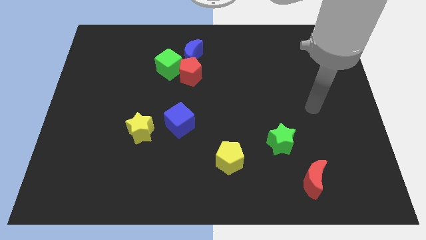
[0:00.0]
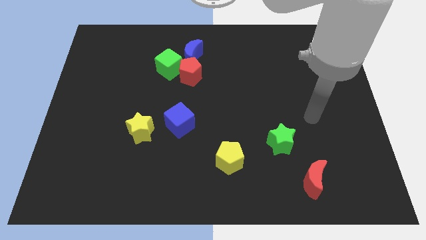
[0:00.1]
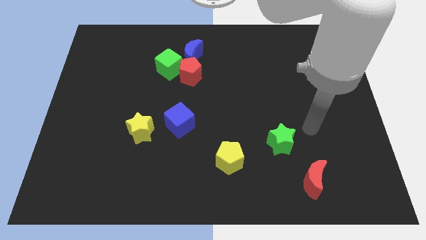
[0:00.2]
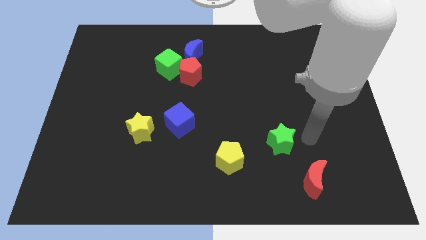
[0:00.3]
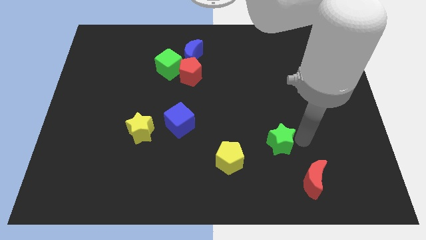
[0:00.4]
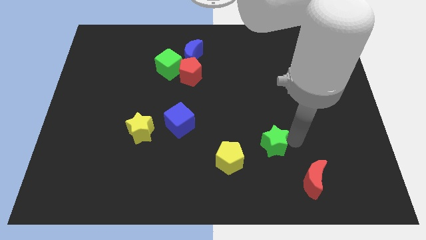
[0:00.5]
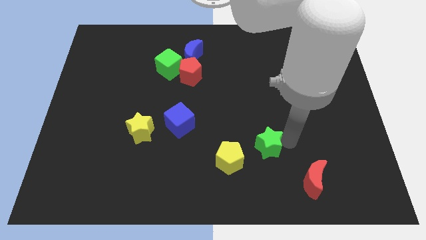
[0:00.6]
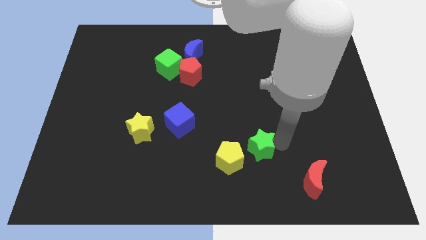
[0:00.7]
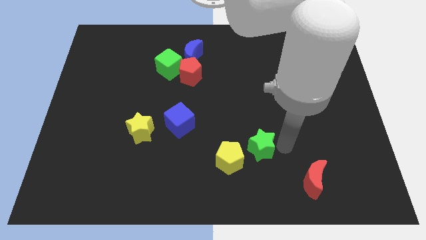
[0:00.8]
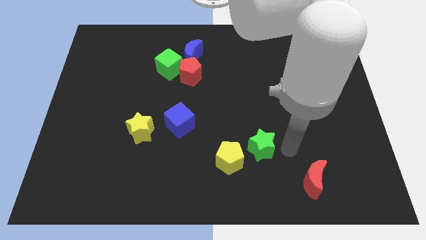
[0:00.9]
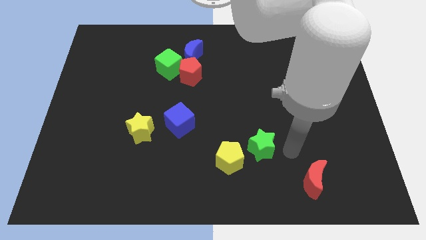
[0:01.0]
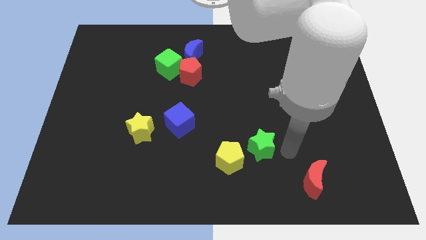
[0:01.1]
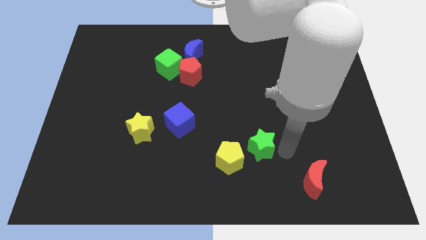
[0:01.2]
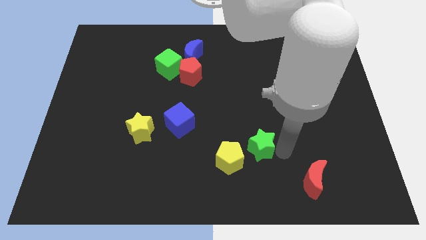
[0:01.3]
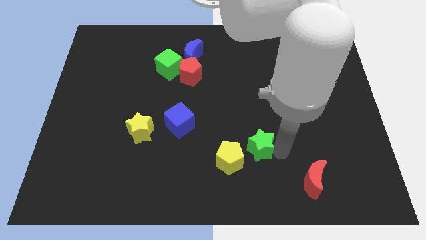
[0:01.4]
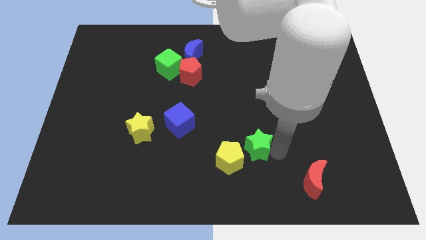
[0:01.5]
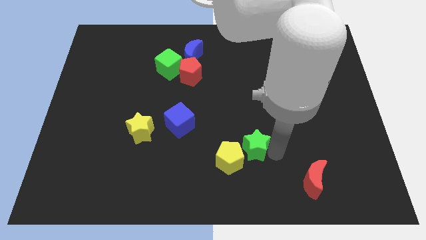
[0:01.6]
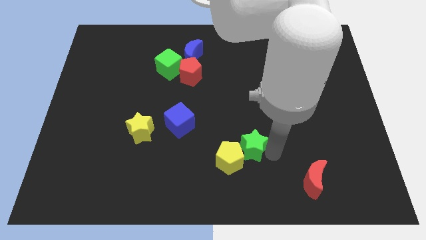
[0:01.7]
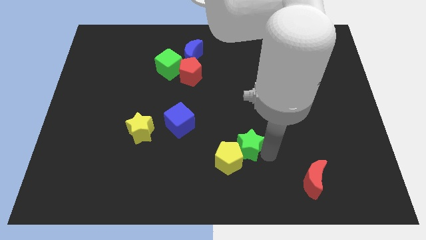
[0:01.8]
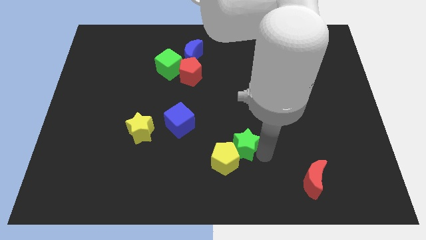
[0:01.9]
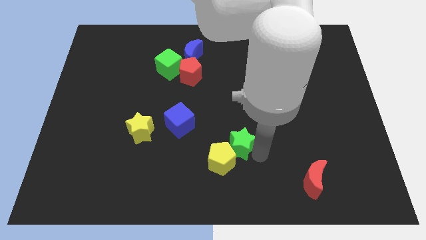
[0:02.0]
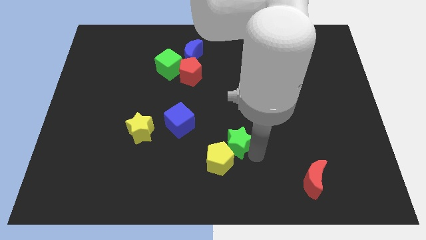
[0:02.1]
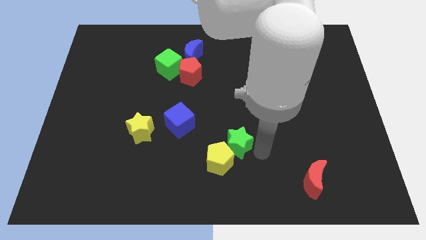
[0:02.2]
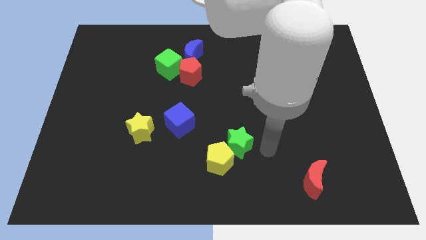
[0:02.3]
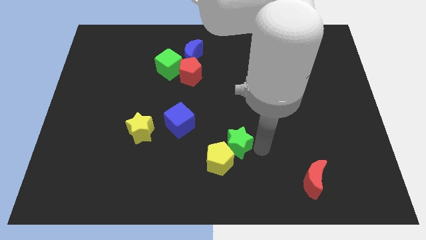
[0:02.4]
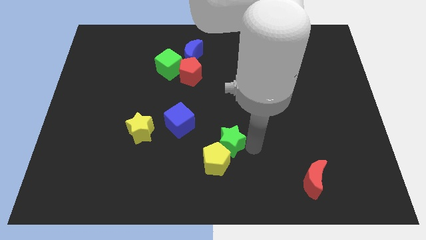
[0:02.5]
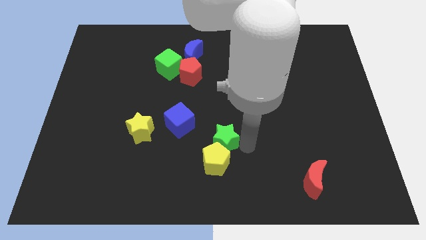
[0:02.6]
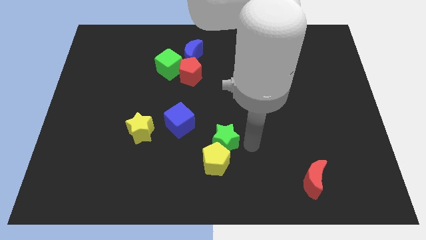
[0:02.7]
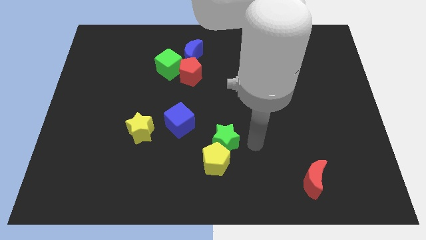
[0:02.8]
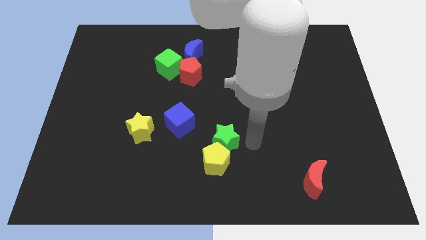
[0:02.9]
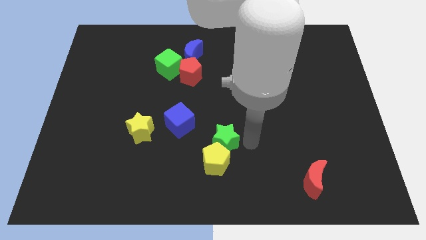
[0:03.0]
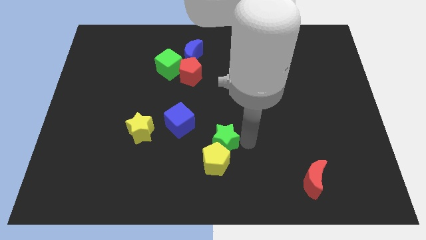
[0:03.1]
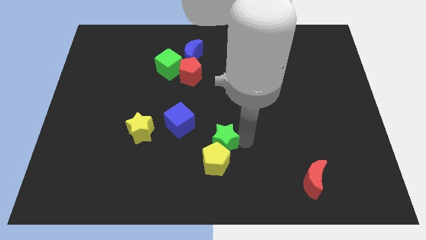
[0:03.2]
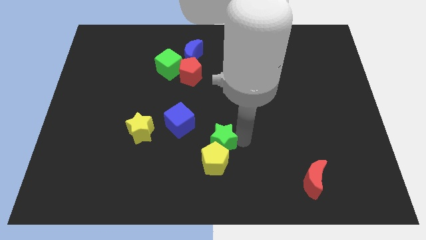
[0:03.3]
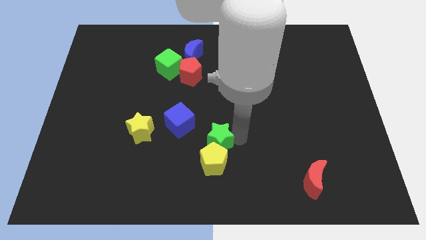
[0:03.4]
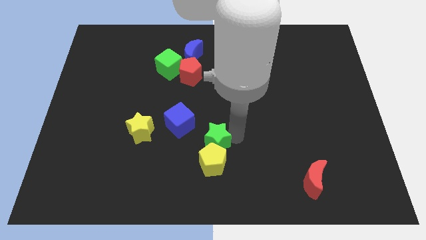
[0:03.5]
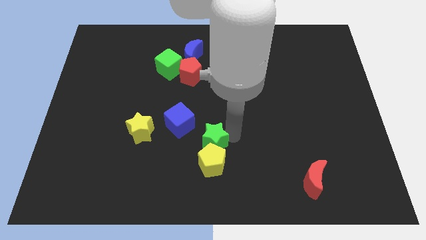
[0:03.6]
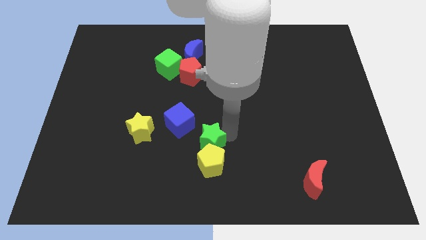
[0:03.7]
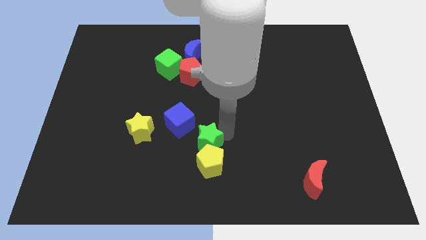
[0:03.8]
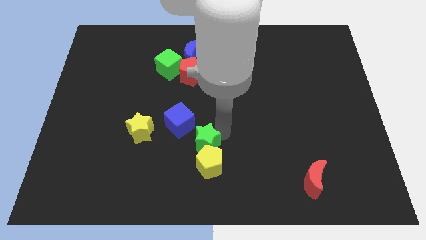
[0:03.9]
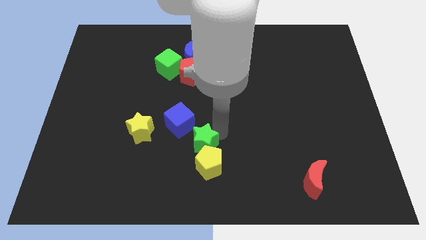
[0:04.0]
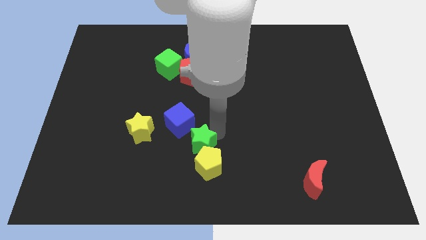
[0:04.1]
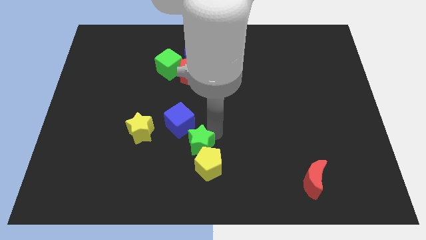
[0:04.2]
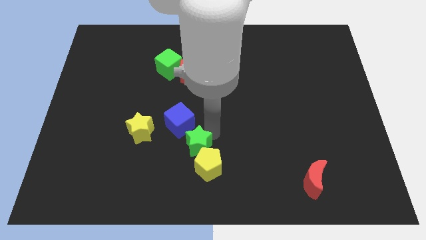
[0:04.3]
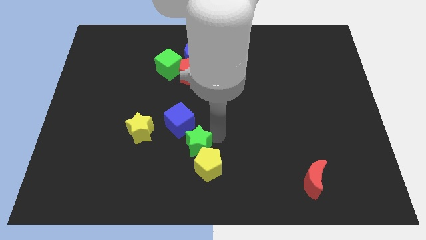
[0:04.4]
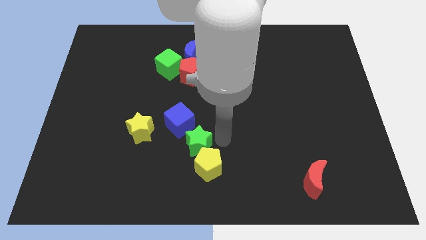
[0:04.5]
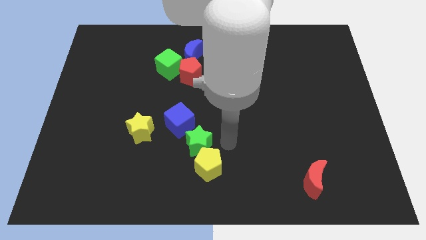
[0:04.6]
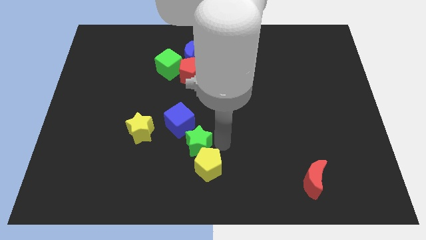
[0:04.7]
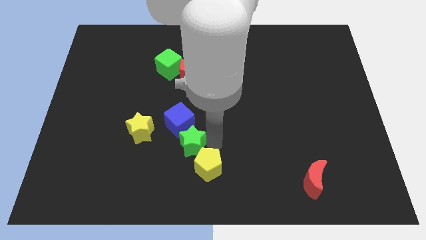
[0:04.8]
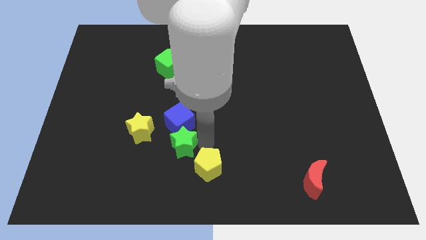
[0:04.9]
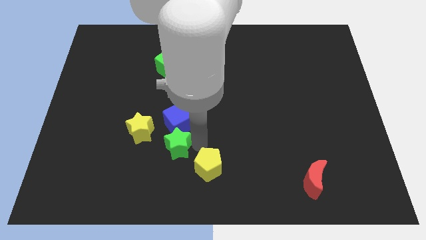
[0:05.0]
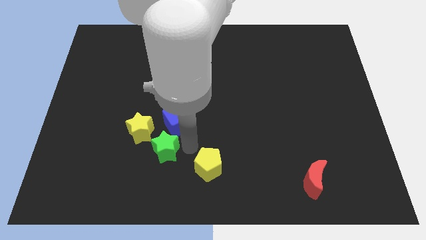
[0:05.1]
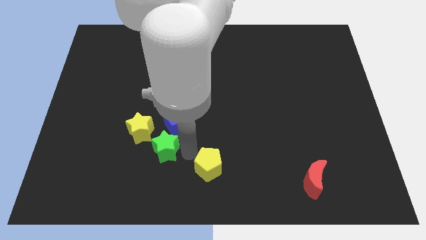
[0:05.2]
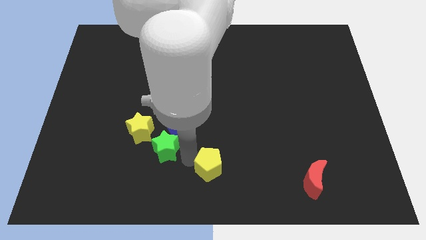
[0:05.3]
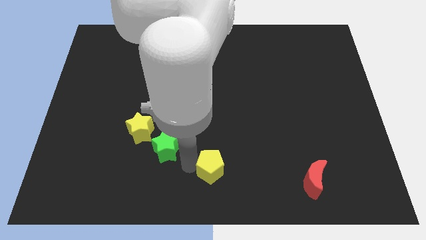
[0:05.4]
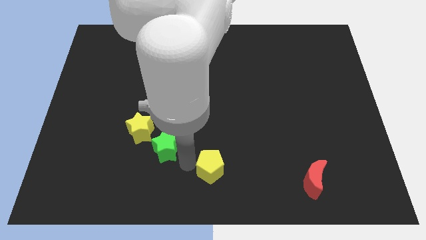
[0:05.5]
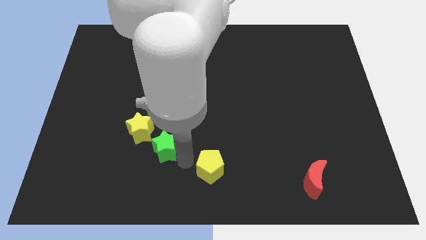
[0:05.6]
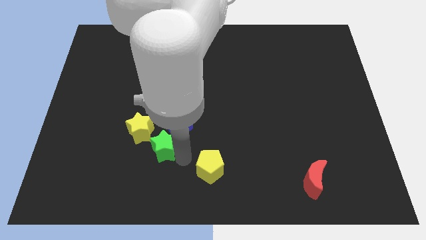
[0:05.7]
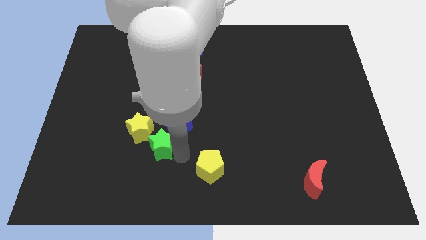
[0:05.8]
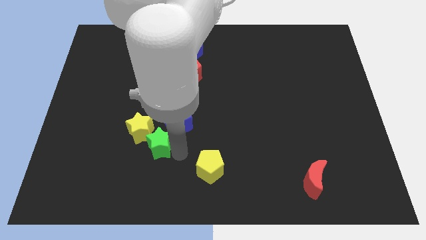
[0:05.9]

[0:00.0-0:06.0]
put the green star next to the yellow star

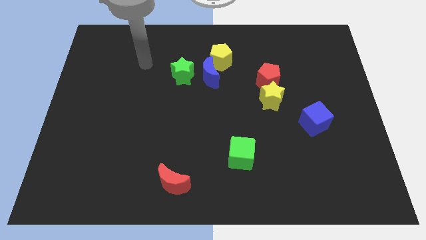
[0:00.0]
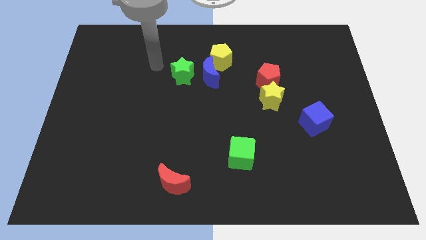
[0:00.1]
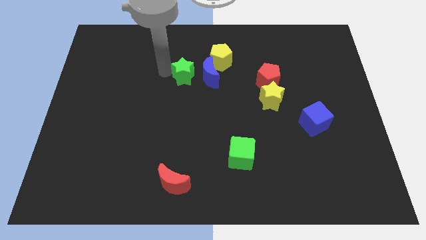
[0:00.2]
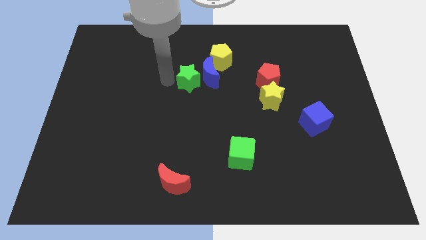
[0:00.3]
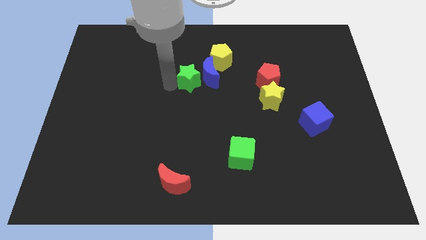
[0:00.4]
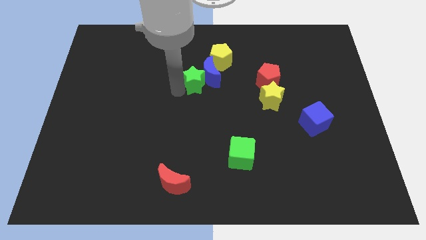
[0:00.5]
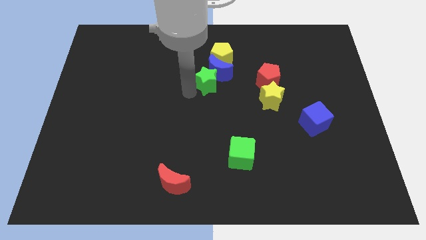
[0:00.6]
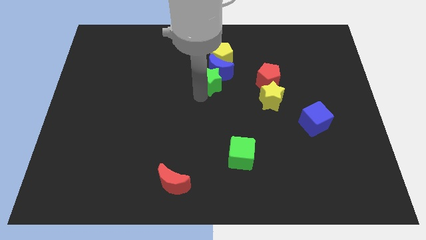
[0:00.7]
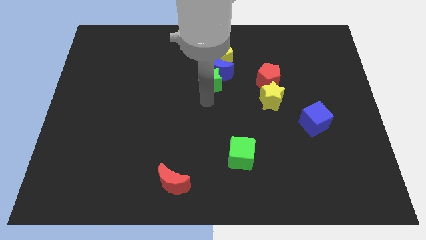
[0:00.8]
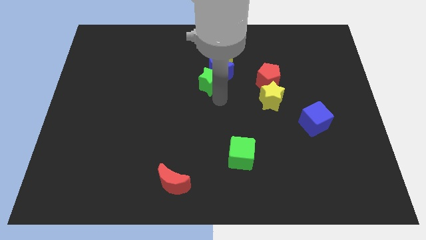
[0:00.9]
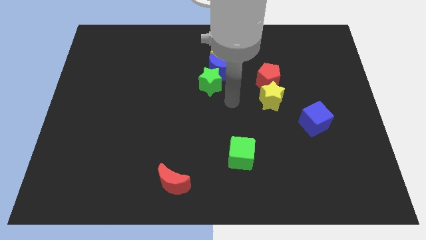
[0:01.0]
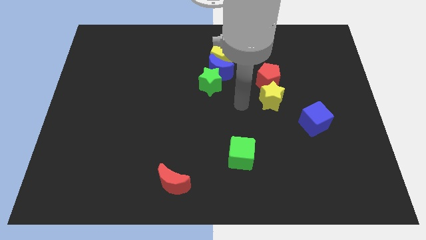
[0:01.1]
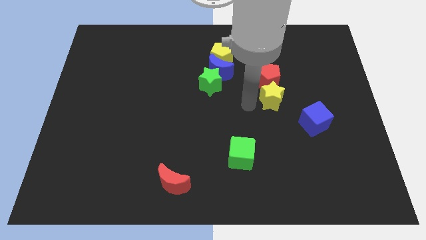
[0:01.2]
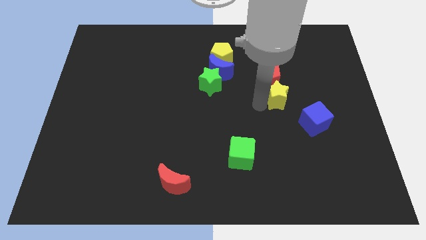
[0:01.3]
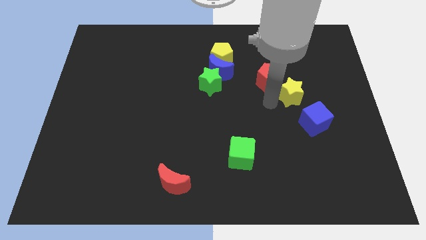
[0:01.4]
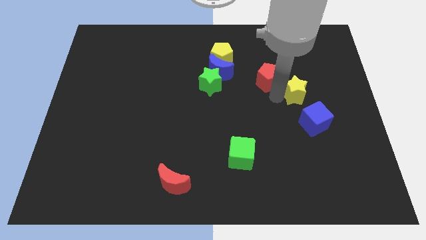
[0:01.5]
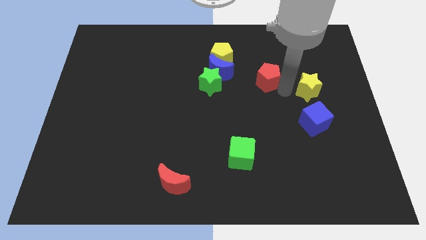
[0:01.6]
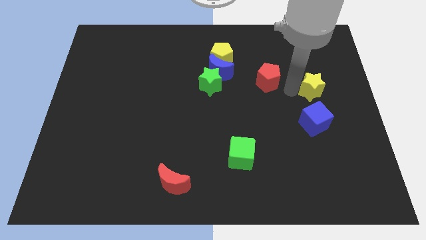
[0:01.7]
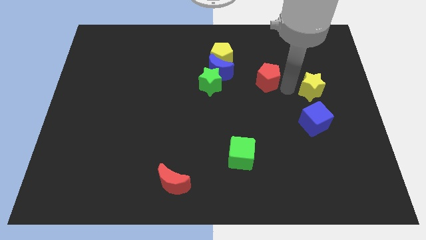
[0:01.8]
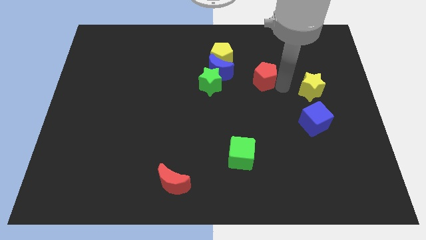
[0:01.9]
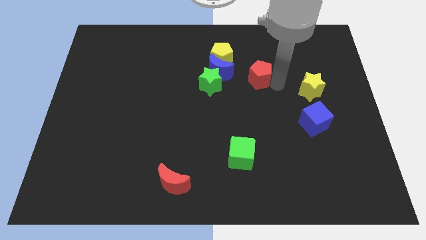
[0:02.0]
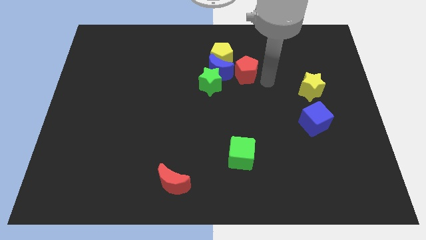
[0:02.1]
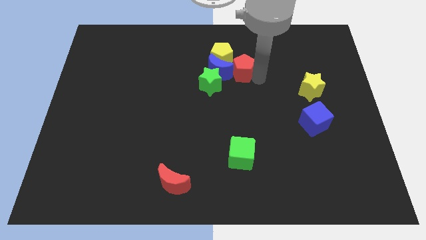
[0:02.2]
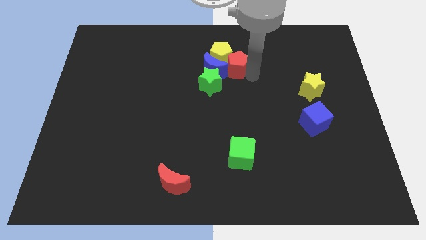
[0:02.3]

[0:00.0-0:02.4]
move the red pentagon close to the yellow pentagon
